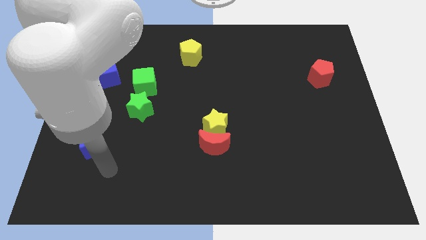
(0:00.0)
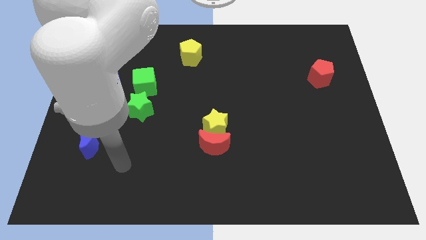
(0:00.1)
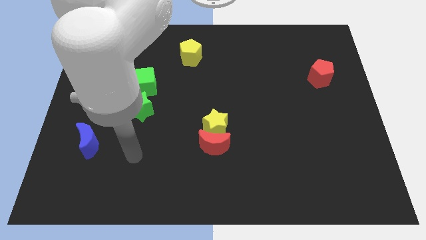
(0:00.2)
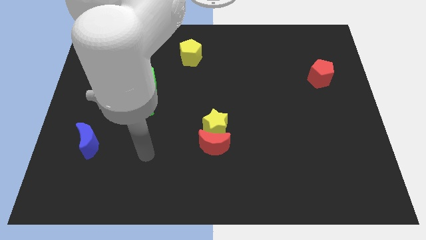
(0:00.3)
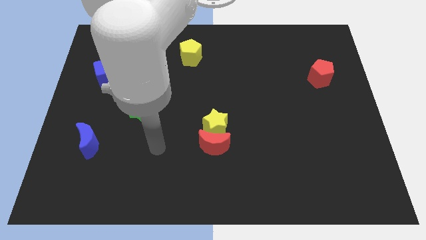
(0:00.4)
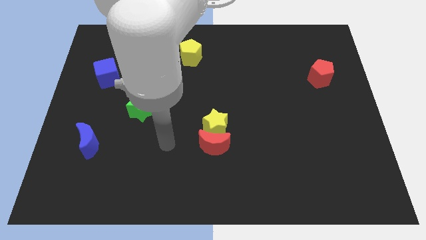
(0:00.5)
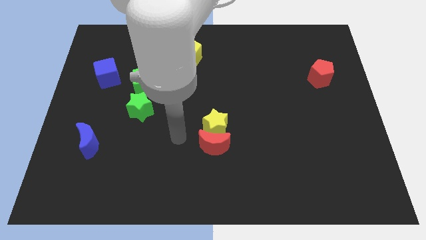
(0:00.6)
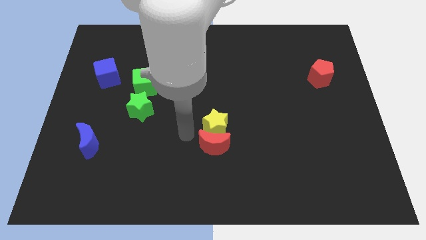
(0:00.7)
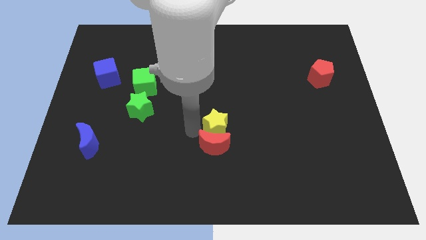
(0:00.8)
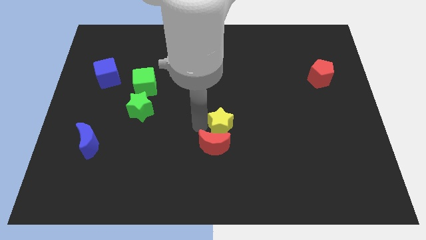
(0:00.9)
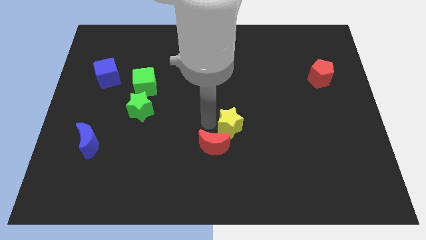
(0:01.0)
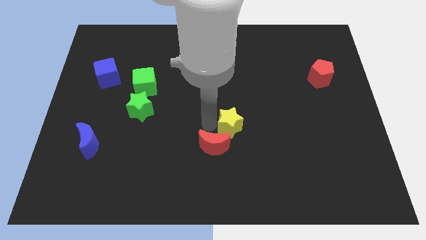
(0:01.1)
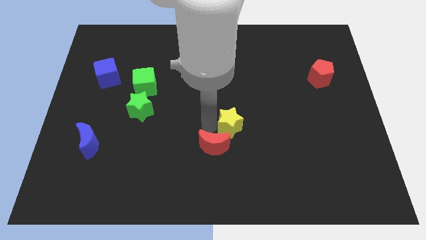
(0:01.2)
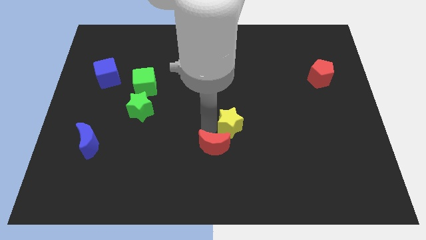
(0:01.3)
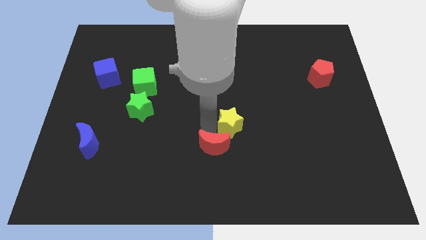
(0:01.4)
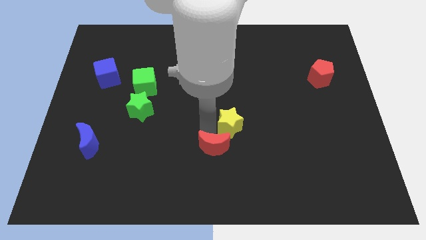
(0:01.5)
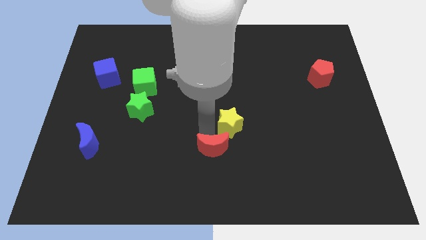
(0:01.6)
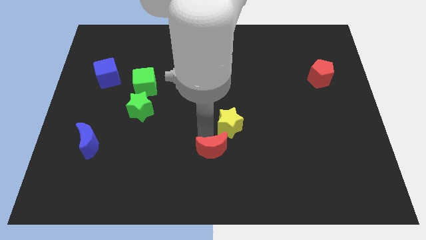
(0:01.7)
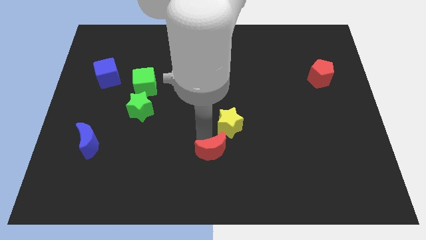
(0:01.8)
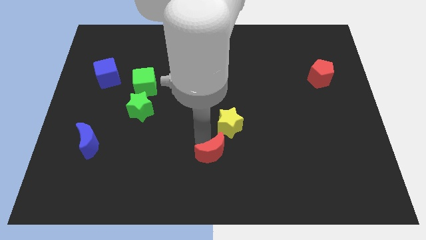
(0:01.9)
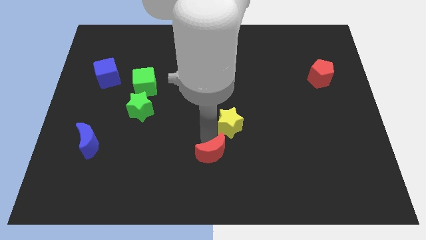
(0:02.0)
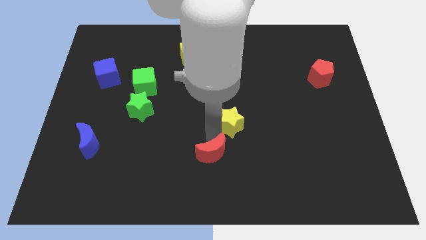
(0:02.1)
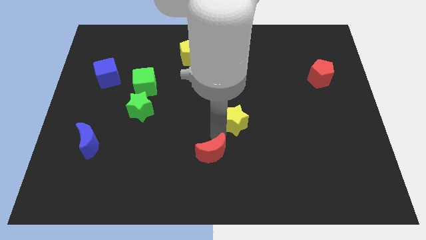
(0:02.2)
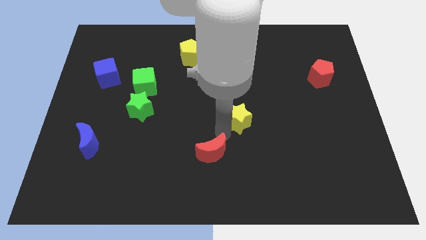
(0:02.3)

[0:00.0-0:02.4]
move the red moon away from the yellow star

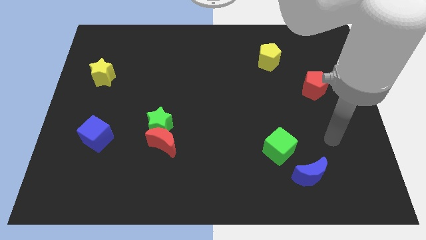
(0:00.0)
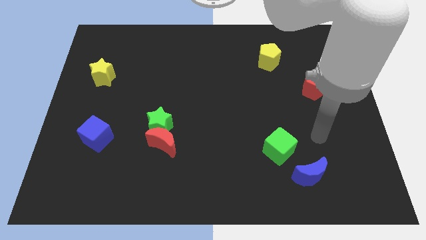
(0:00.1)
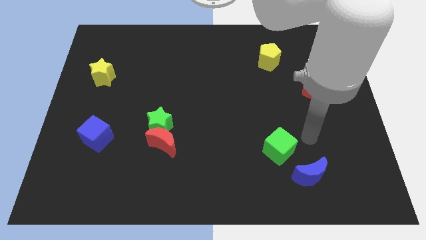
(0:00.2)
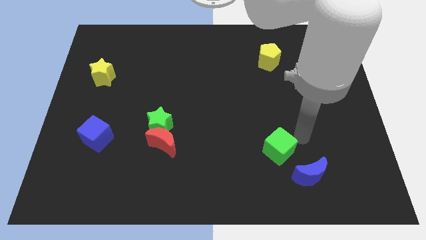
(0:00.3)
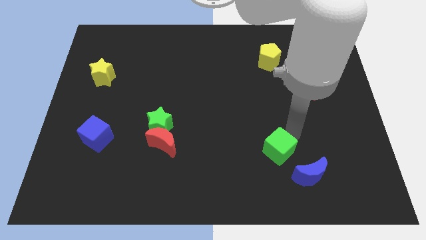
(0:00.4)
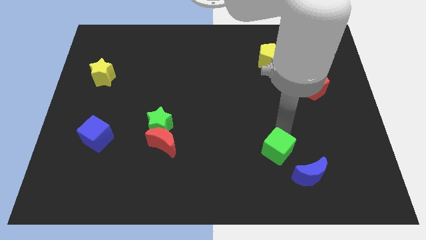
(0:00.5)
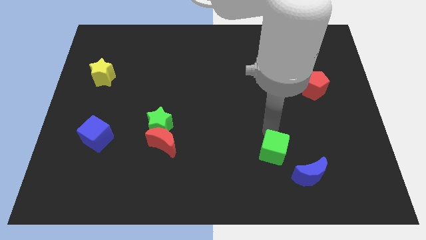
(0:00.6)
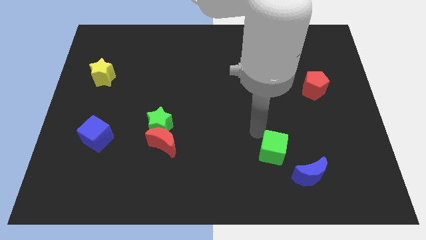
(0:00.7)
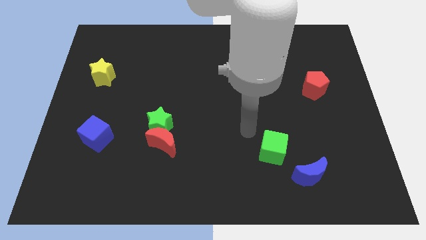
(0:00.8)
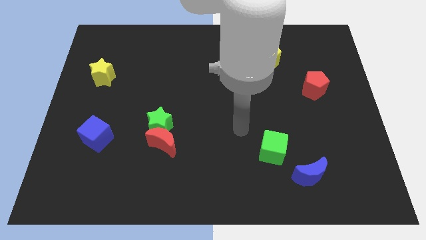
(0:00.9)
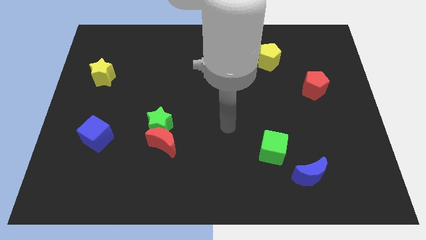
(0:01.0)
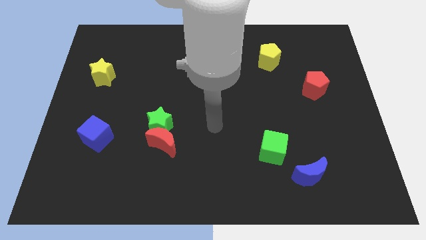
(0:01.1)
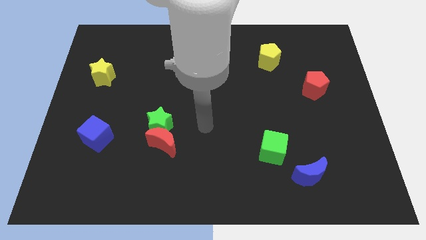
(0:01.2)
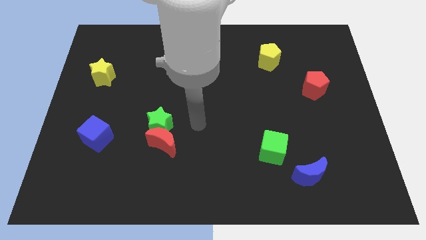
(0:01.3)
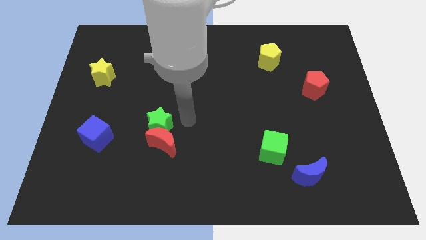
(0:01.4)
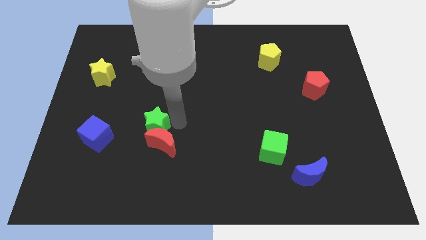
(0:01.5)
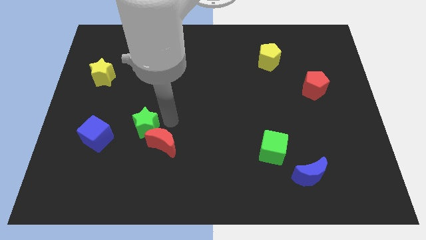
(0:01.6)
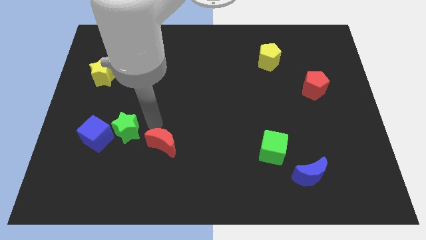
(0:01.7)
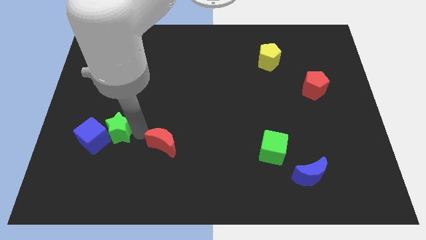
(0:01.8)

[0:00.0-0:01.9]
separate the red moon from the green star

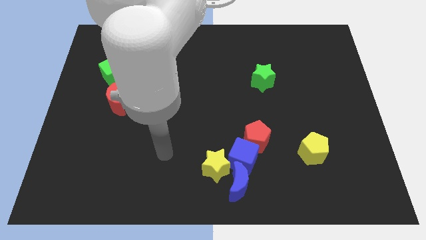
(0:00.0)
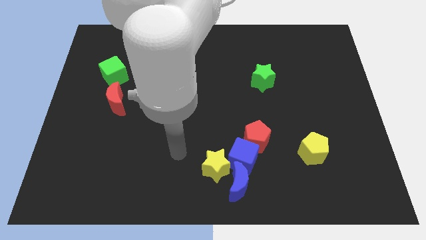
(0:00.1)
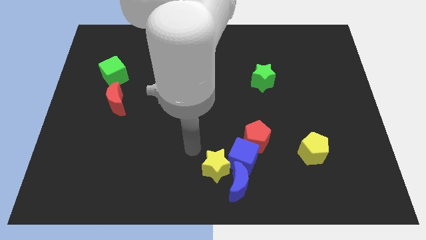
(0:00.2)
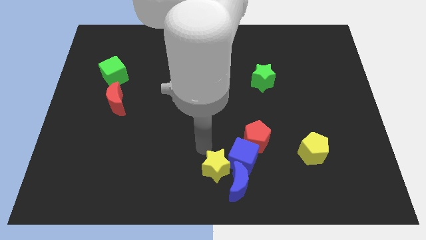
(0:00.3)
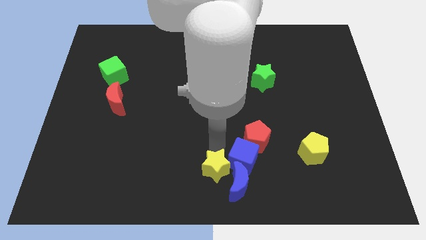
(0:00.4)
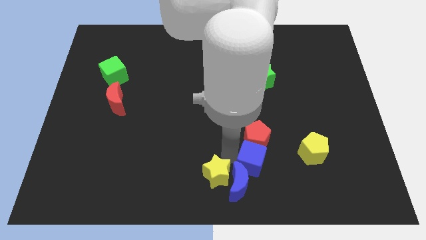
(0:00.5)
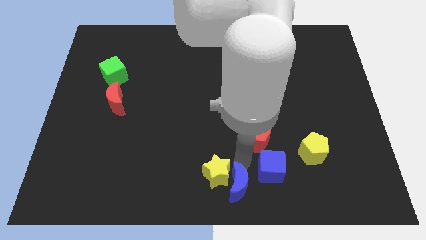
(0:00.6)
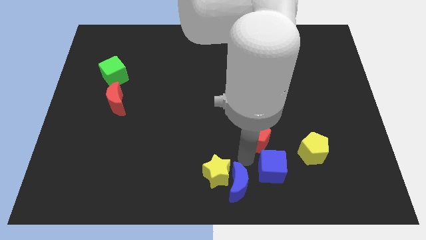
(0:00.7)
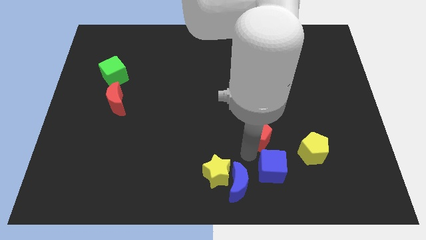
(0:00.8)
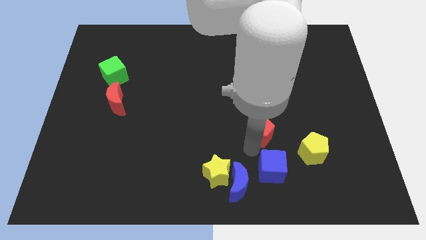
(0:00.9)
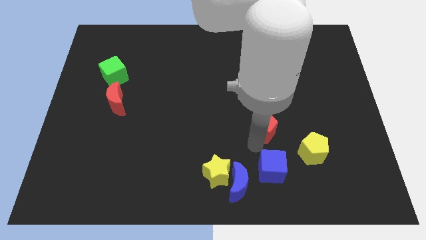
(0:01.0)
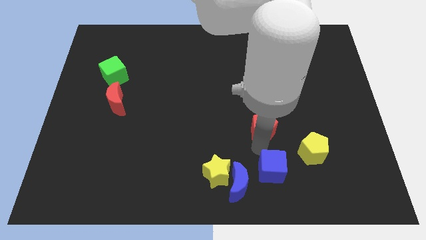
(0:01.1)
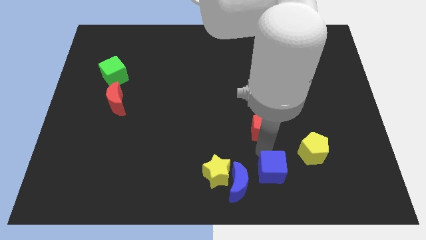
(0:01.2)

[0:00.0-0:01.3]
separate the red pentagon from the blue cube

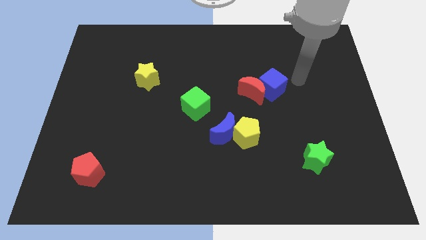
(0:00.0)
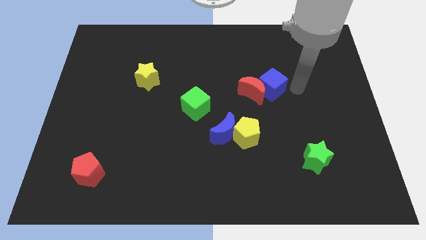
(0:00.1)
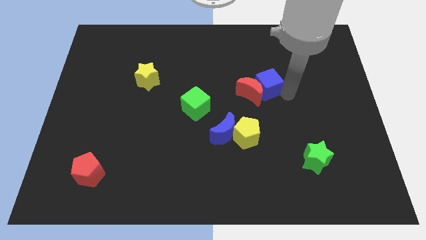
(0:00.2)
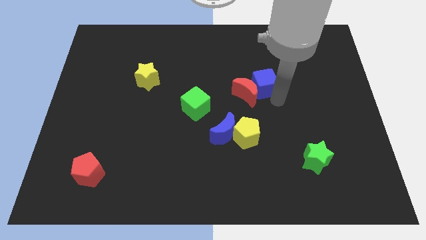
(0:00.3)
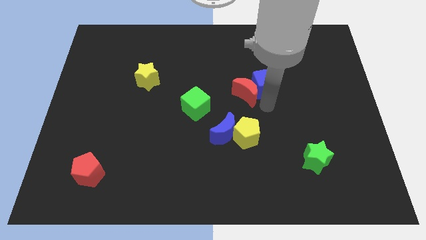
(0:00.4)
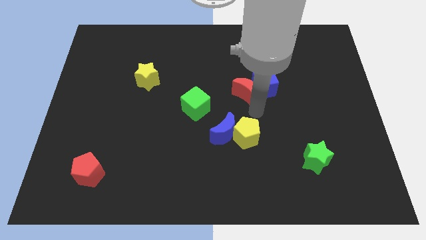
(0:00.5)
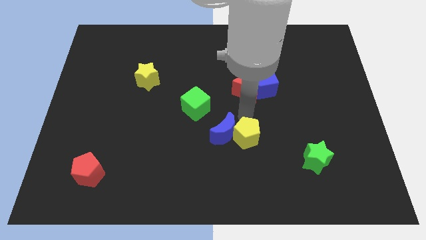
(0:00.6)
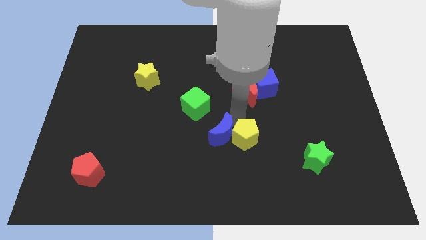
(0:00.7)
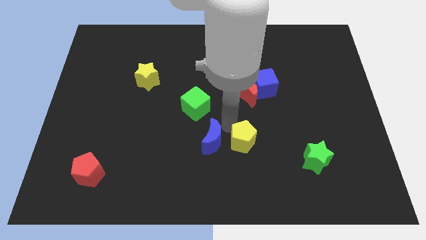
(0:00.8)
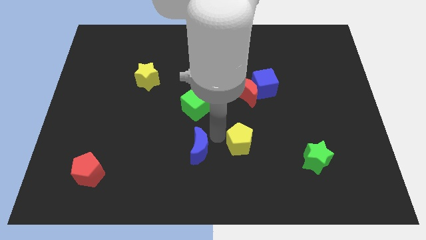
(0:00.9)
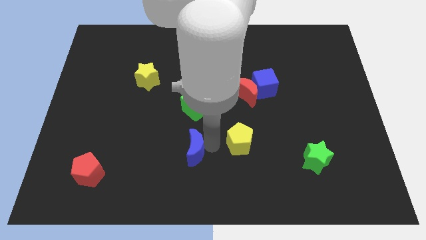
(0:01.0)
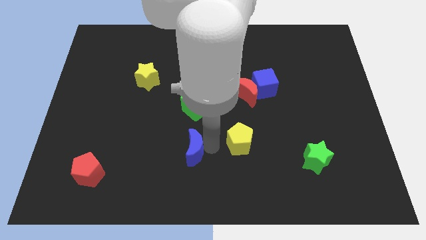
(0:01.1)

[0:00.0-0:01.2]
pull the yellow pentagon apart from the blue moon

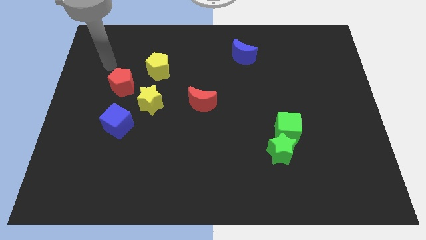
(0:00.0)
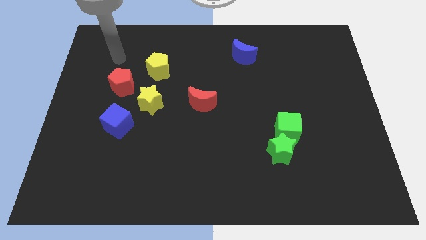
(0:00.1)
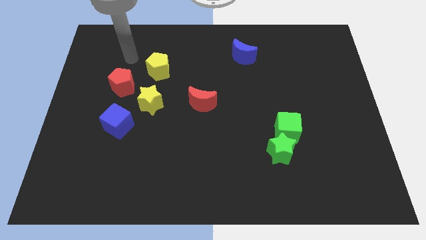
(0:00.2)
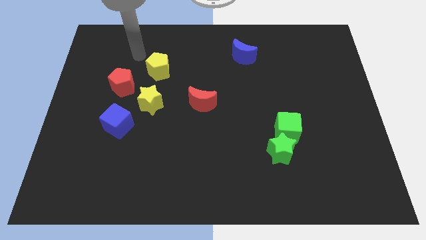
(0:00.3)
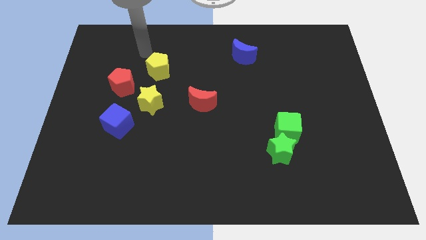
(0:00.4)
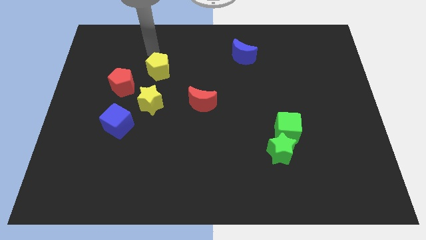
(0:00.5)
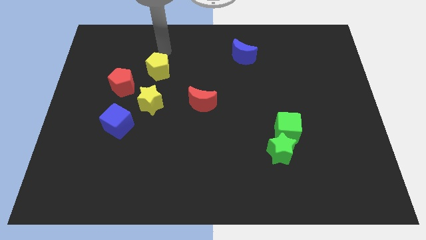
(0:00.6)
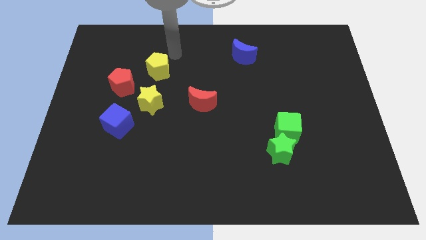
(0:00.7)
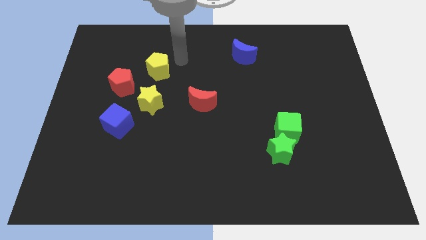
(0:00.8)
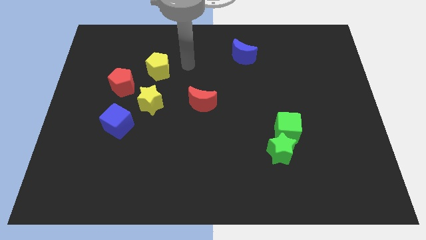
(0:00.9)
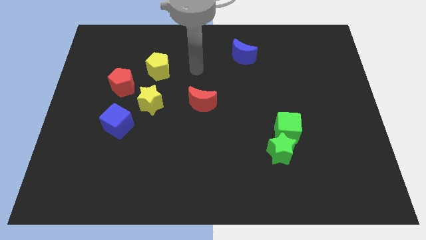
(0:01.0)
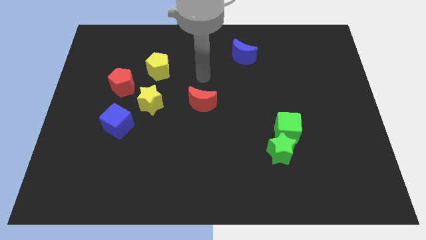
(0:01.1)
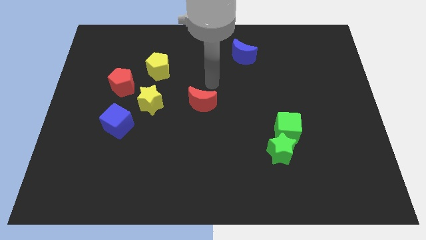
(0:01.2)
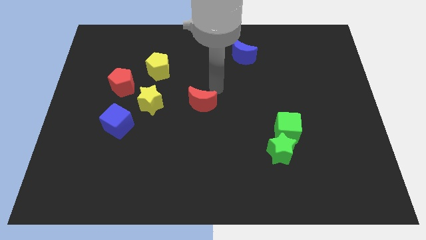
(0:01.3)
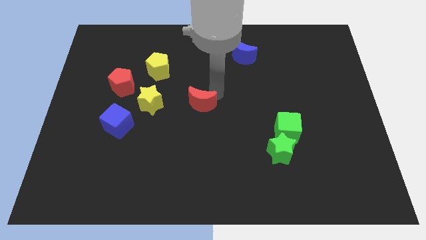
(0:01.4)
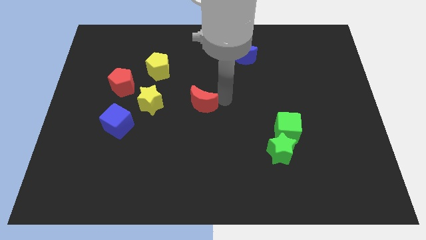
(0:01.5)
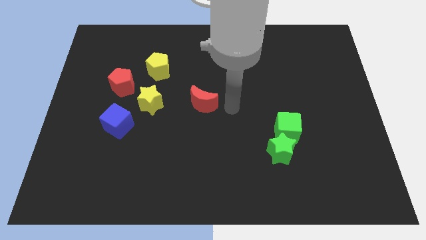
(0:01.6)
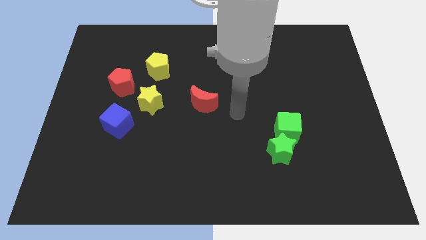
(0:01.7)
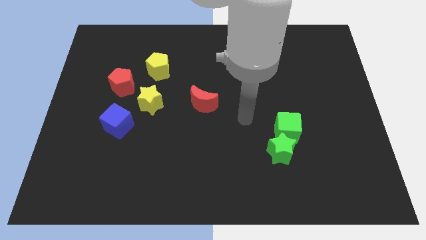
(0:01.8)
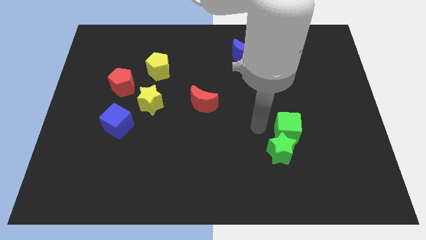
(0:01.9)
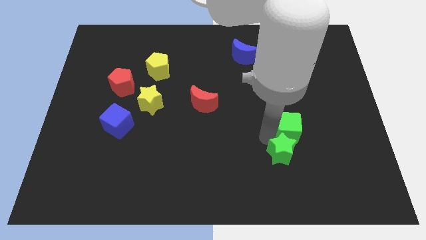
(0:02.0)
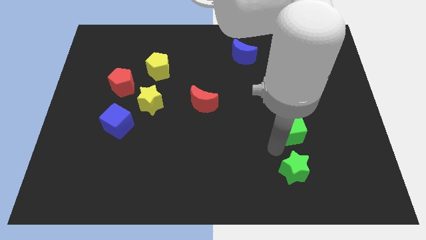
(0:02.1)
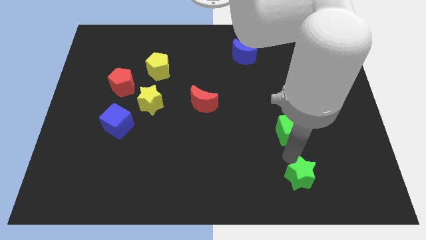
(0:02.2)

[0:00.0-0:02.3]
pull the green cube apart from the green star

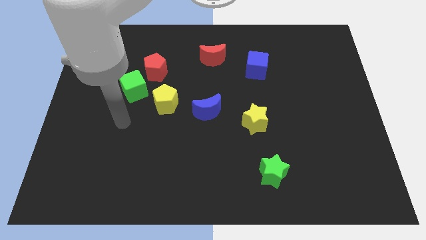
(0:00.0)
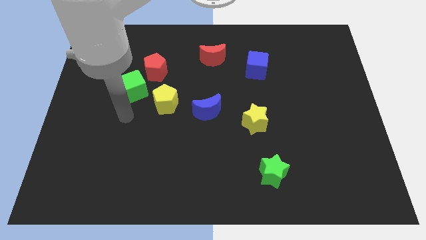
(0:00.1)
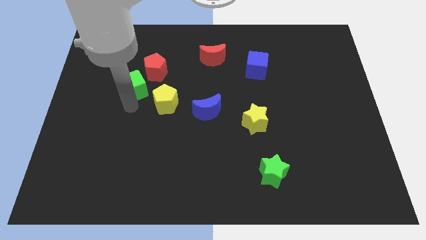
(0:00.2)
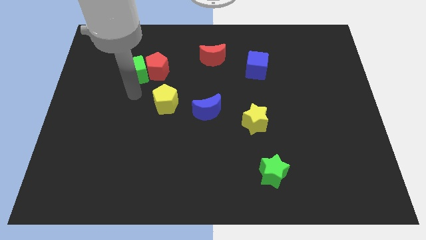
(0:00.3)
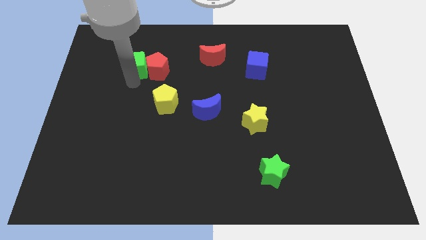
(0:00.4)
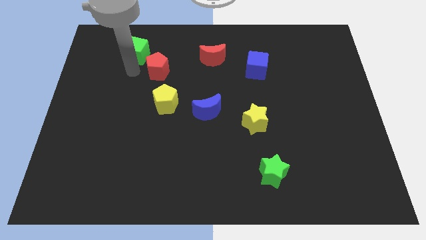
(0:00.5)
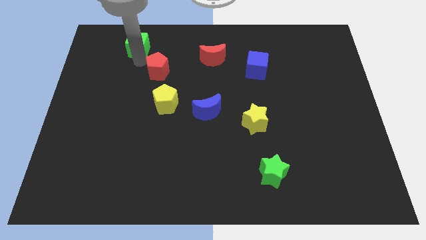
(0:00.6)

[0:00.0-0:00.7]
move the red pentagon away from the green cube